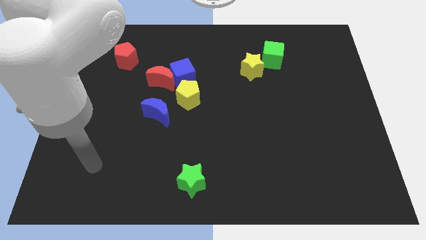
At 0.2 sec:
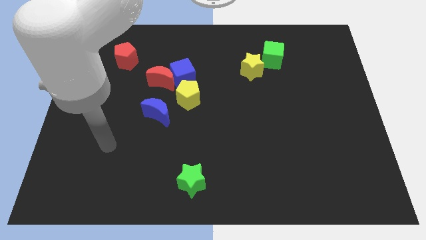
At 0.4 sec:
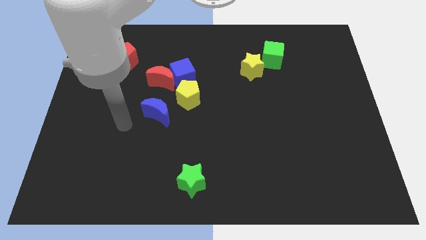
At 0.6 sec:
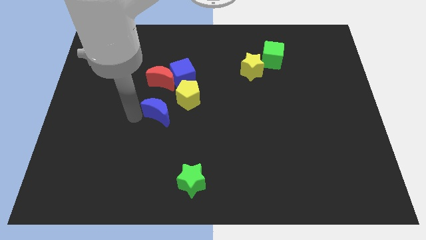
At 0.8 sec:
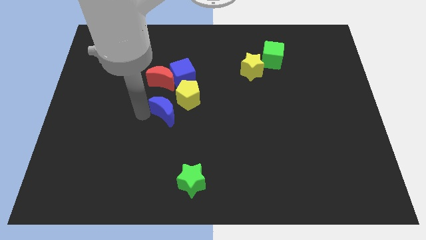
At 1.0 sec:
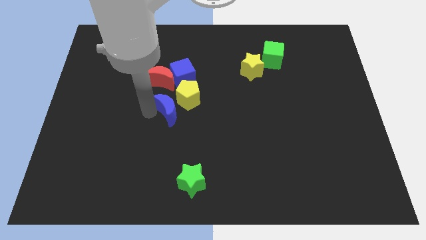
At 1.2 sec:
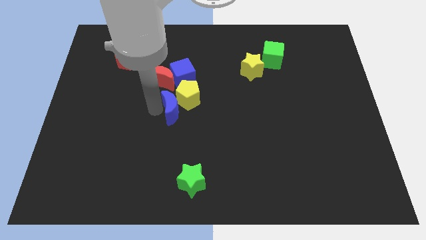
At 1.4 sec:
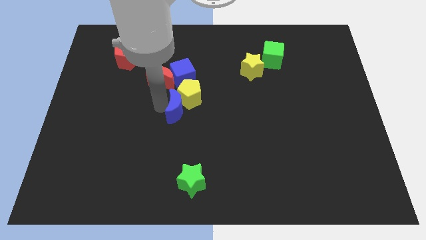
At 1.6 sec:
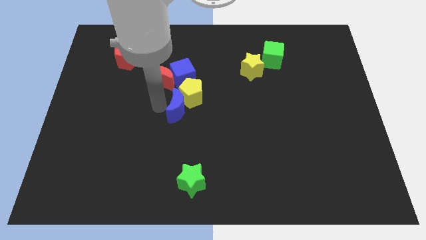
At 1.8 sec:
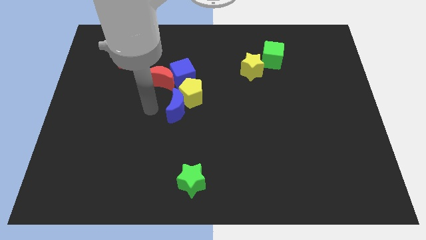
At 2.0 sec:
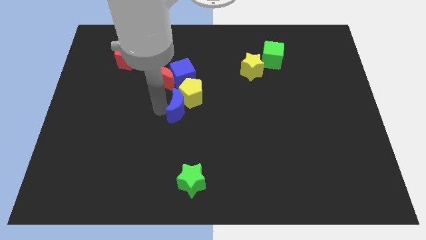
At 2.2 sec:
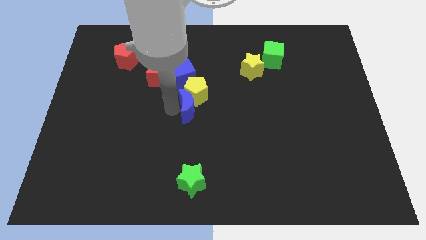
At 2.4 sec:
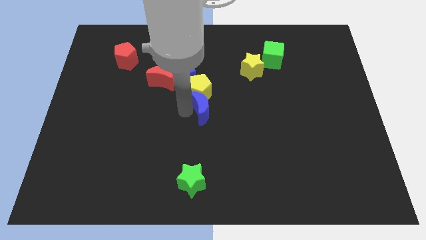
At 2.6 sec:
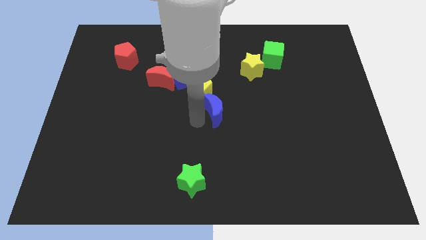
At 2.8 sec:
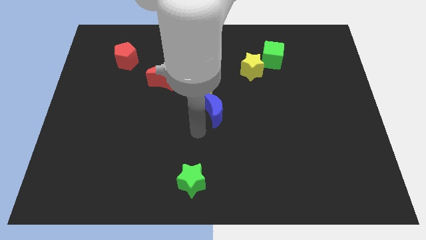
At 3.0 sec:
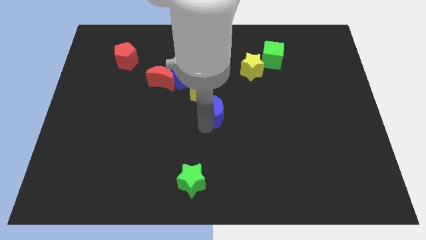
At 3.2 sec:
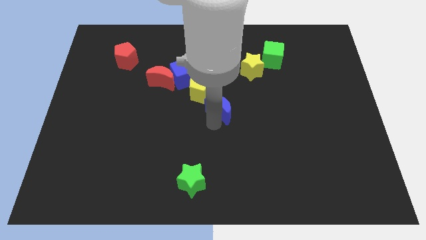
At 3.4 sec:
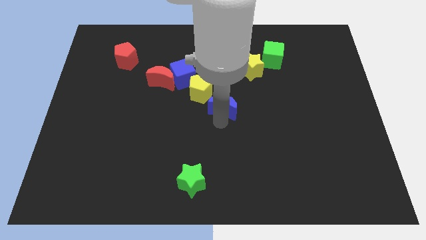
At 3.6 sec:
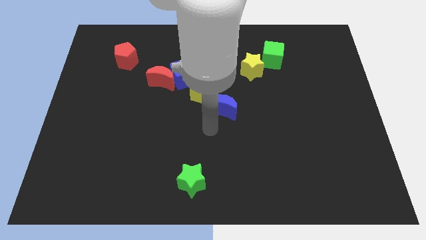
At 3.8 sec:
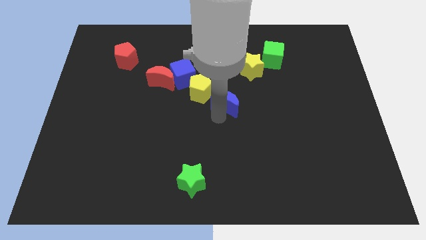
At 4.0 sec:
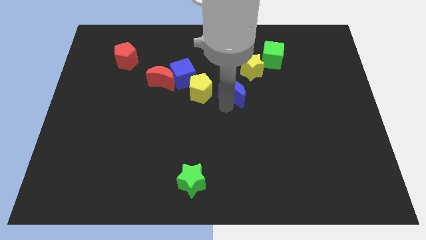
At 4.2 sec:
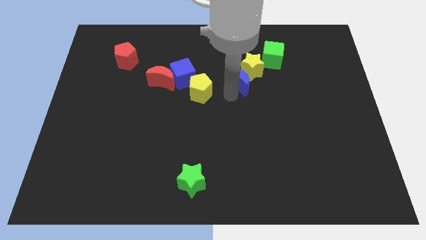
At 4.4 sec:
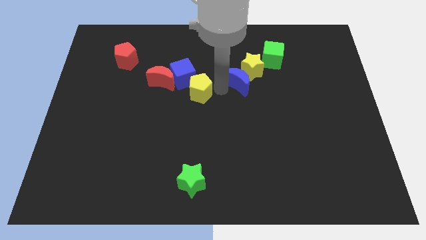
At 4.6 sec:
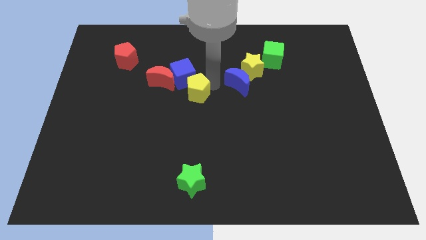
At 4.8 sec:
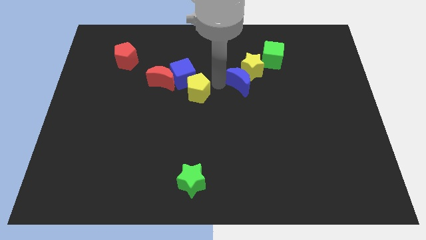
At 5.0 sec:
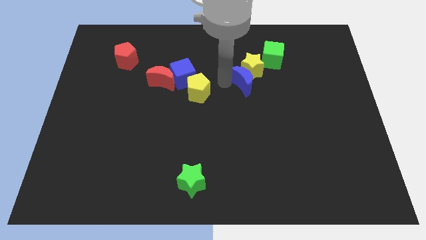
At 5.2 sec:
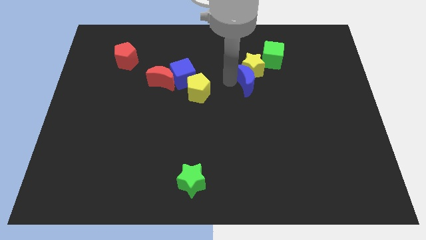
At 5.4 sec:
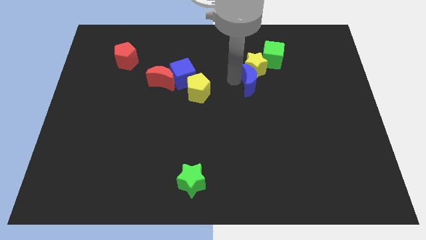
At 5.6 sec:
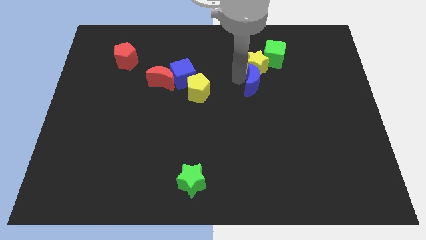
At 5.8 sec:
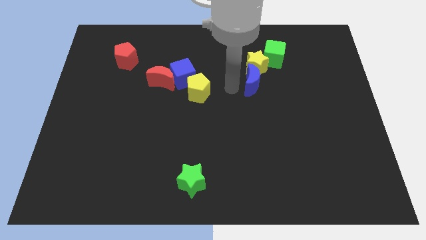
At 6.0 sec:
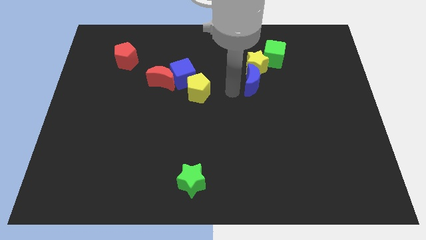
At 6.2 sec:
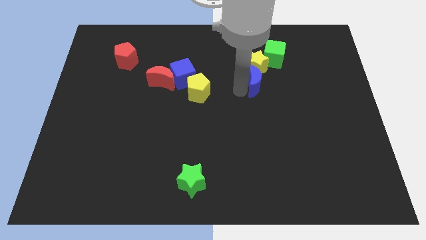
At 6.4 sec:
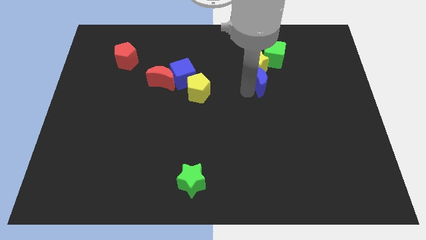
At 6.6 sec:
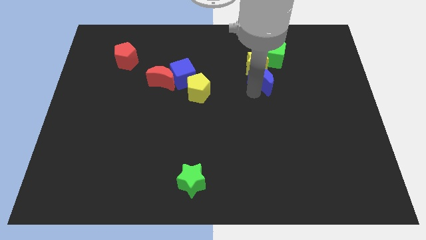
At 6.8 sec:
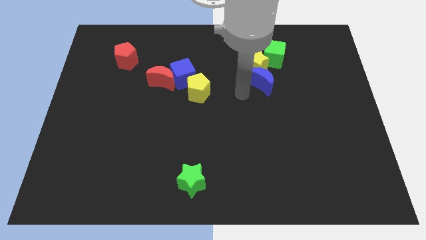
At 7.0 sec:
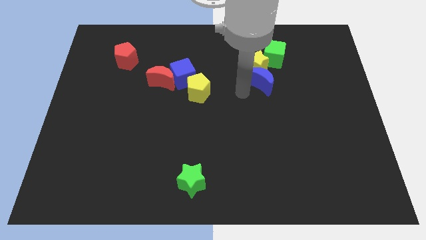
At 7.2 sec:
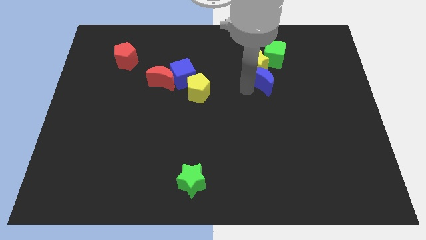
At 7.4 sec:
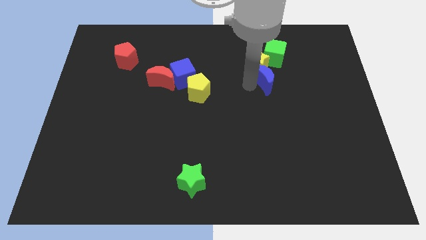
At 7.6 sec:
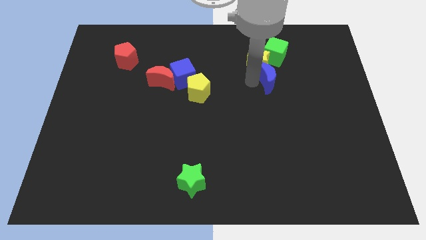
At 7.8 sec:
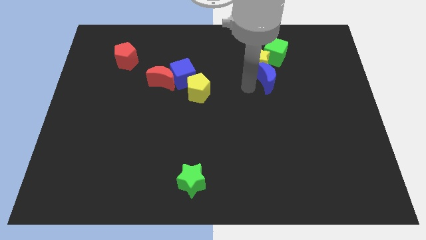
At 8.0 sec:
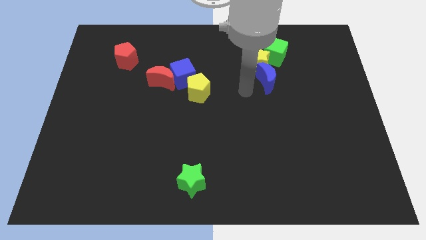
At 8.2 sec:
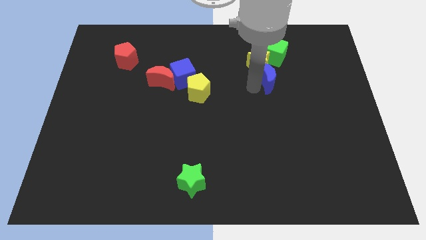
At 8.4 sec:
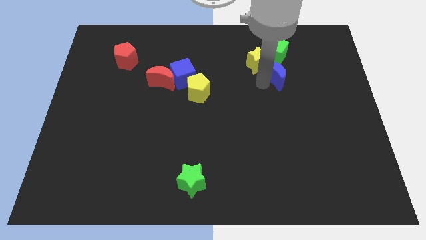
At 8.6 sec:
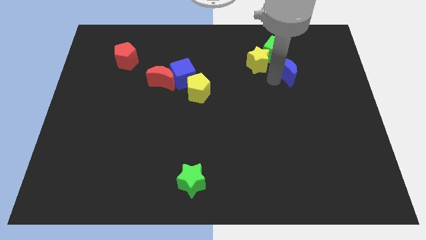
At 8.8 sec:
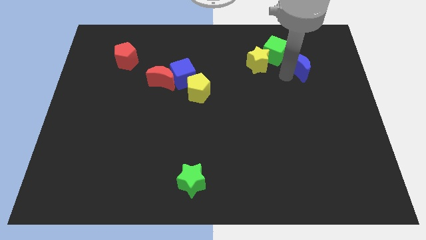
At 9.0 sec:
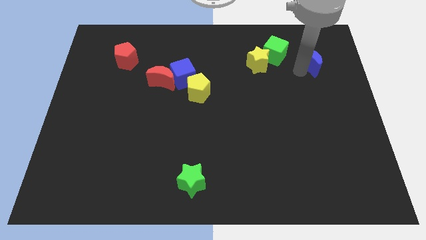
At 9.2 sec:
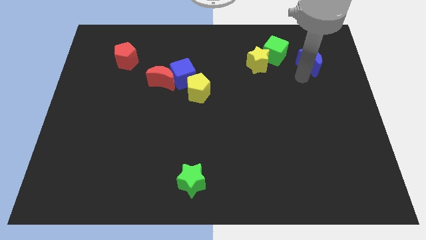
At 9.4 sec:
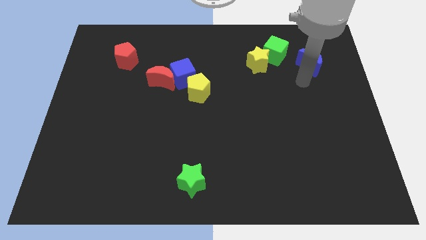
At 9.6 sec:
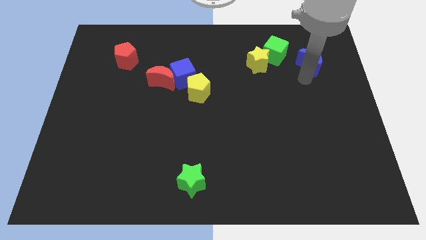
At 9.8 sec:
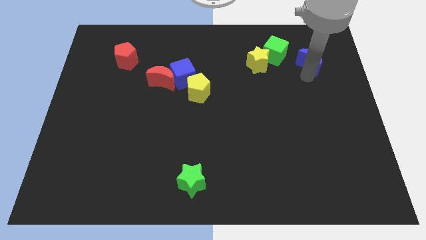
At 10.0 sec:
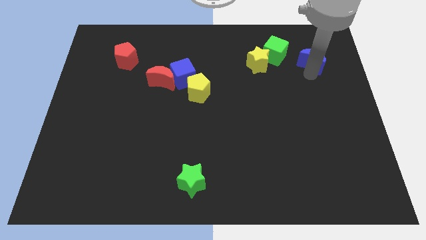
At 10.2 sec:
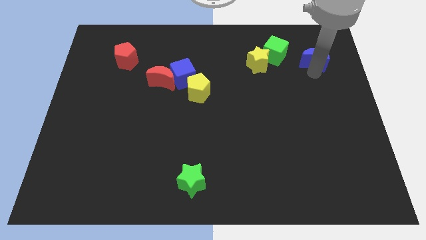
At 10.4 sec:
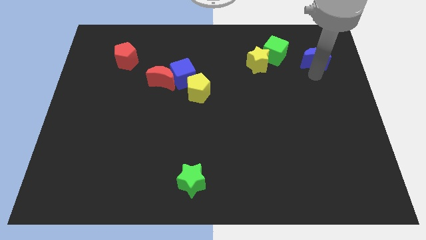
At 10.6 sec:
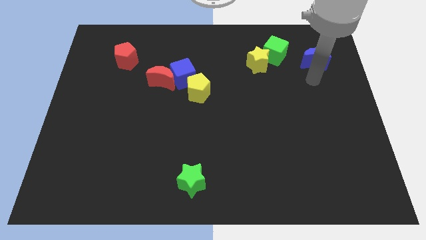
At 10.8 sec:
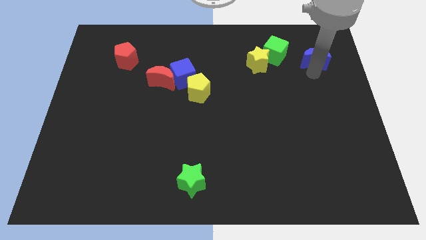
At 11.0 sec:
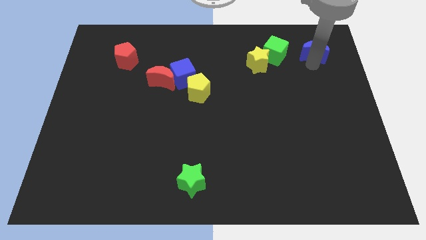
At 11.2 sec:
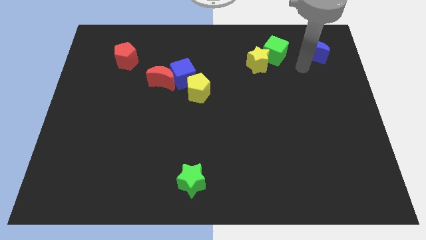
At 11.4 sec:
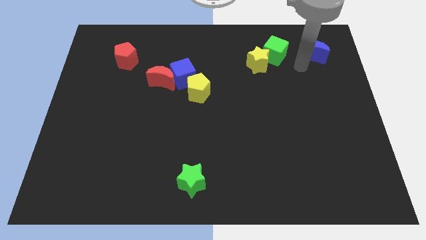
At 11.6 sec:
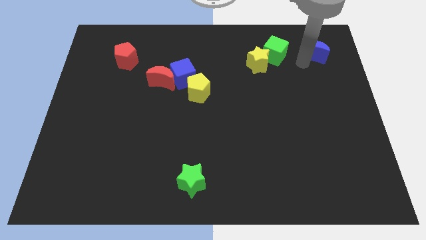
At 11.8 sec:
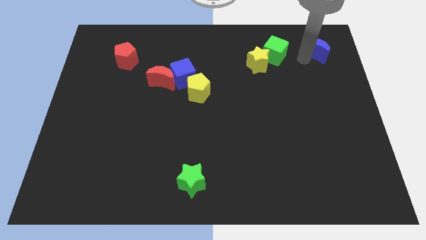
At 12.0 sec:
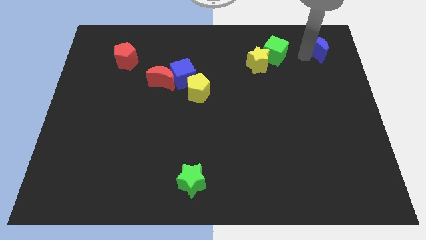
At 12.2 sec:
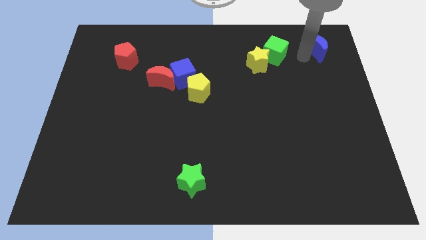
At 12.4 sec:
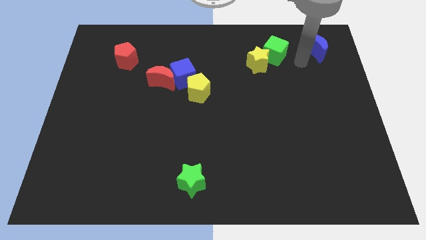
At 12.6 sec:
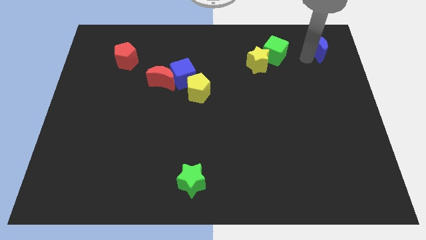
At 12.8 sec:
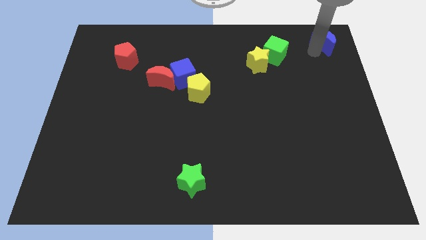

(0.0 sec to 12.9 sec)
move the blue moon to the top right

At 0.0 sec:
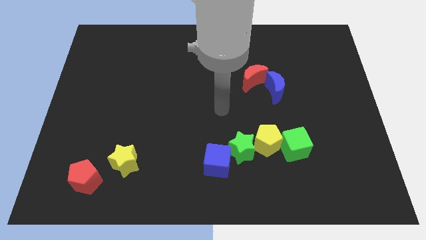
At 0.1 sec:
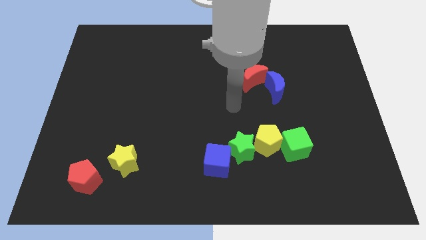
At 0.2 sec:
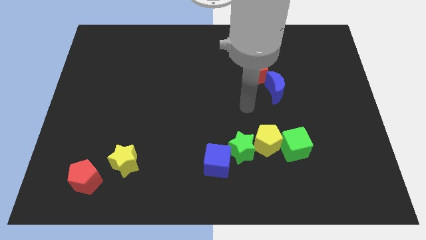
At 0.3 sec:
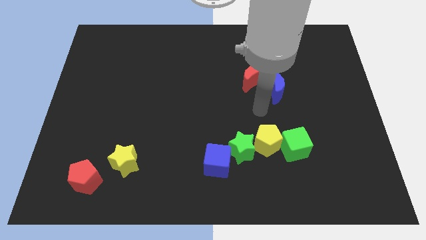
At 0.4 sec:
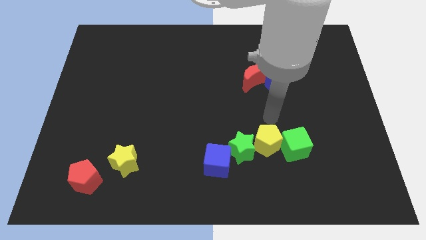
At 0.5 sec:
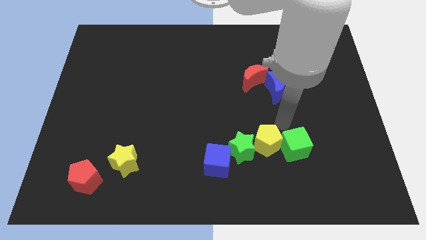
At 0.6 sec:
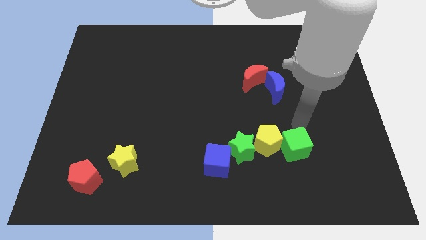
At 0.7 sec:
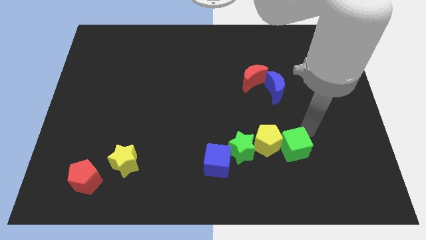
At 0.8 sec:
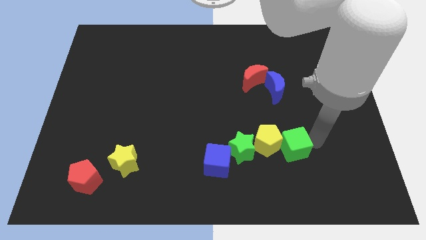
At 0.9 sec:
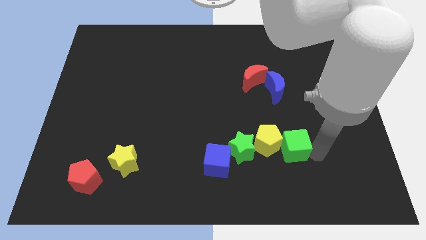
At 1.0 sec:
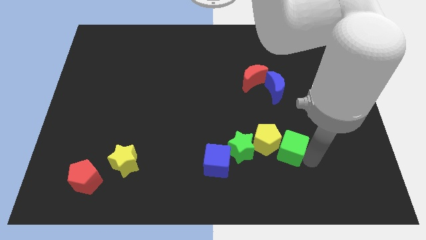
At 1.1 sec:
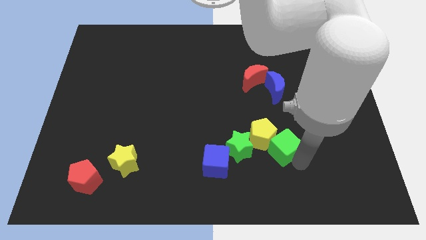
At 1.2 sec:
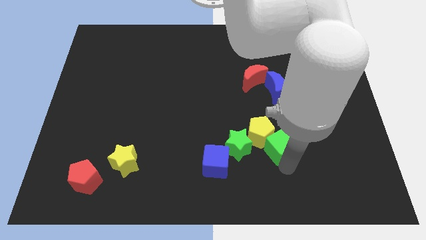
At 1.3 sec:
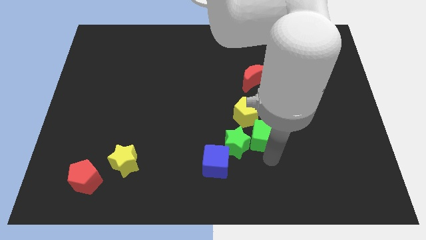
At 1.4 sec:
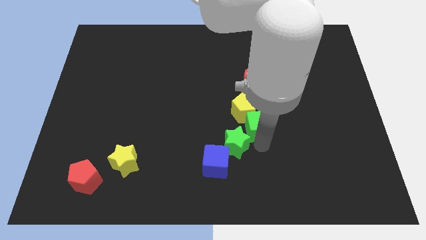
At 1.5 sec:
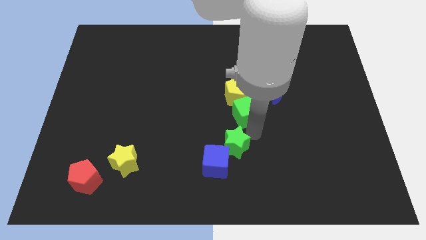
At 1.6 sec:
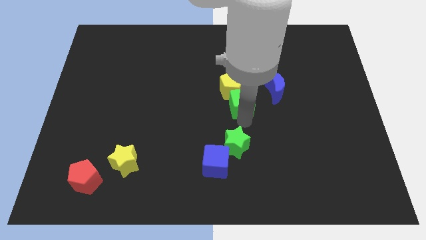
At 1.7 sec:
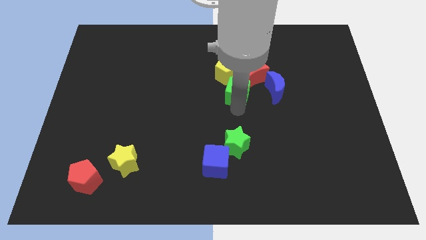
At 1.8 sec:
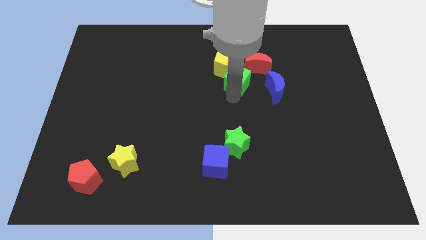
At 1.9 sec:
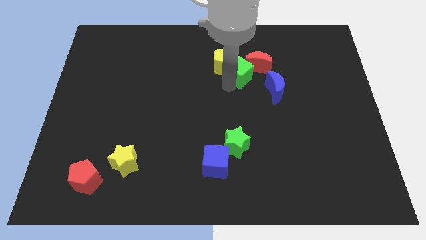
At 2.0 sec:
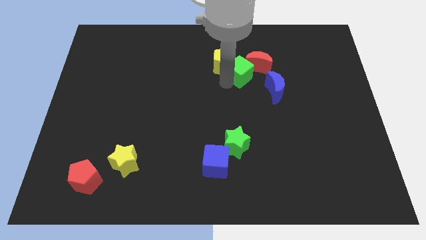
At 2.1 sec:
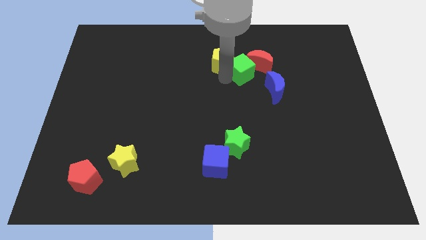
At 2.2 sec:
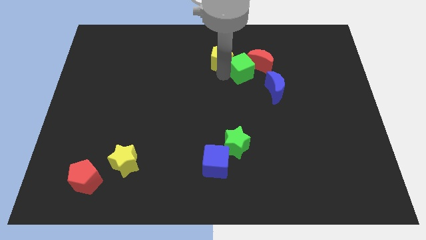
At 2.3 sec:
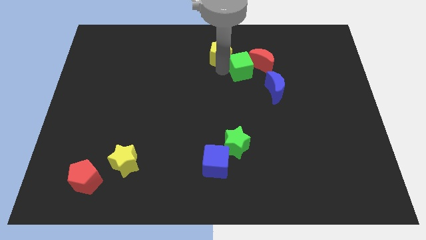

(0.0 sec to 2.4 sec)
slide the yellow pentagon to the top
